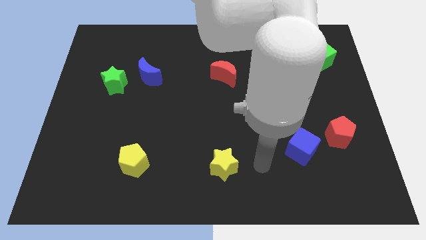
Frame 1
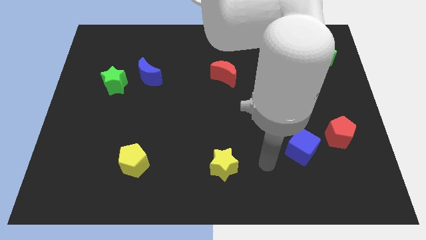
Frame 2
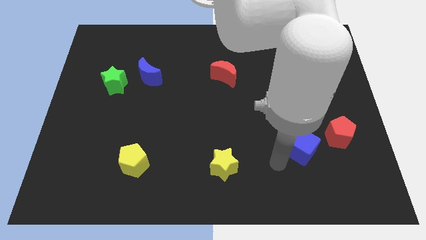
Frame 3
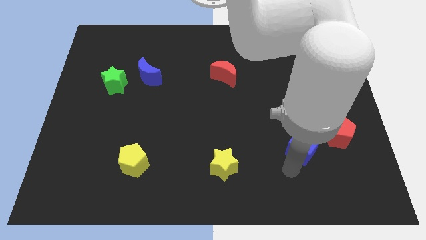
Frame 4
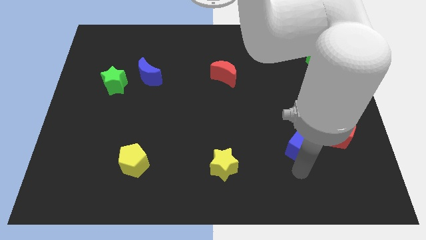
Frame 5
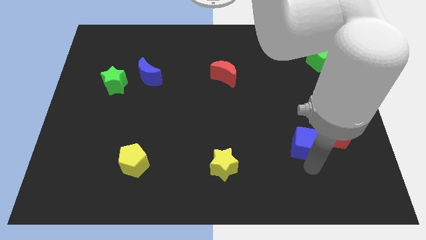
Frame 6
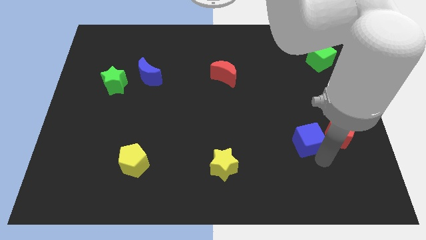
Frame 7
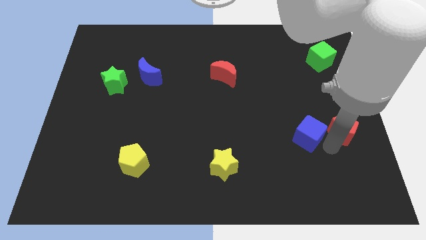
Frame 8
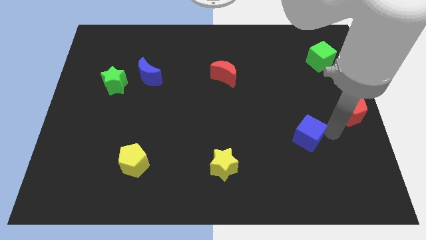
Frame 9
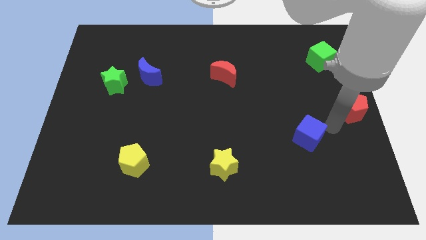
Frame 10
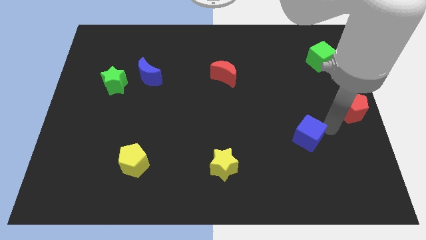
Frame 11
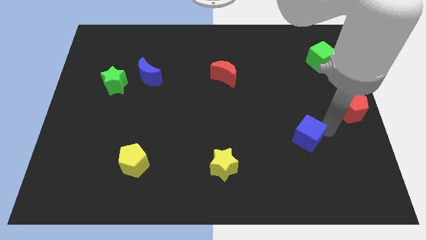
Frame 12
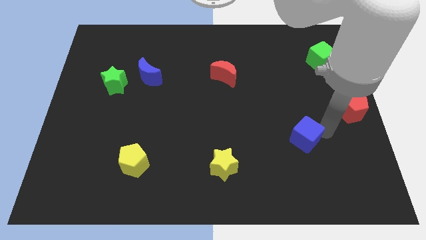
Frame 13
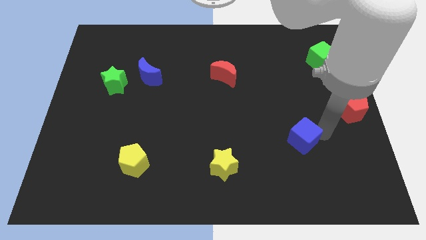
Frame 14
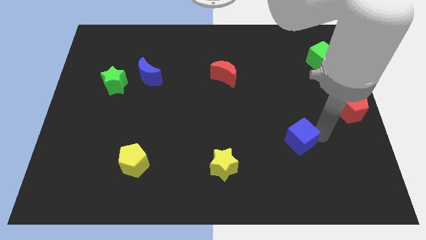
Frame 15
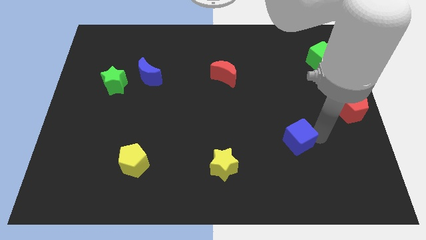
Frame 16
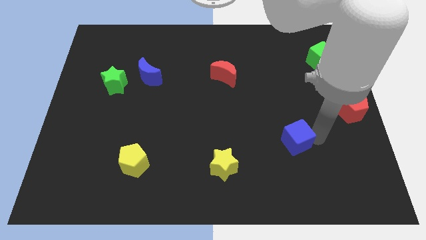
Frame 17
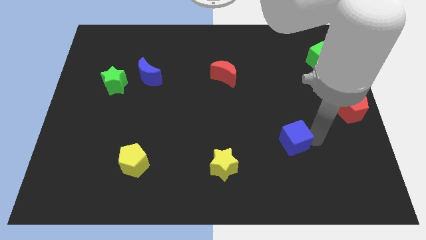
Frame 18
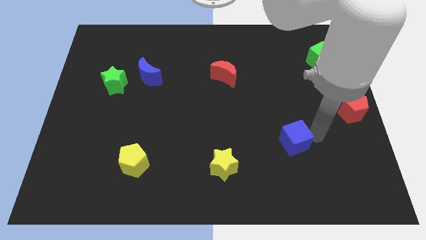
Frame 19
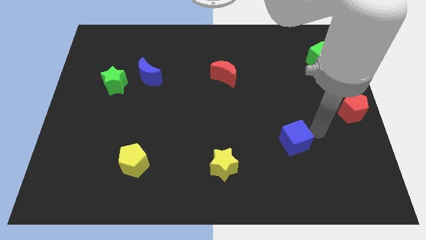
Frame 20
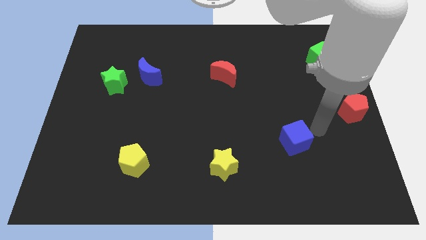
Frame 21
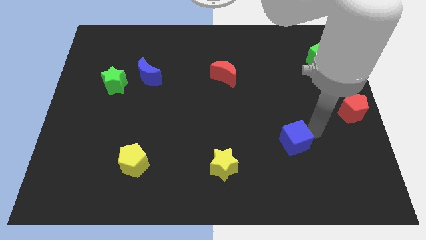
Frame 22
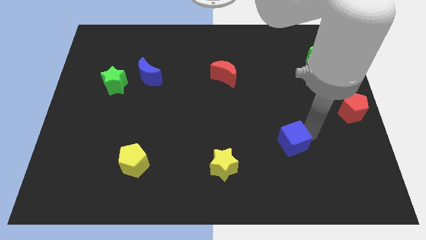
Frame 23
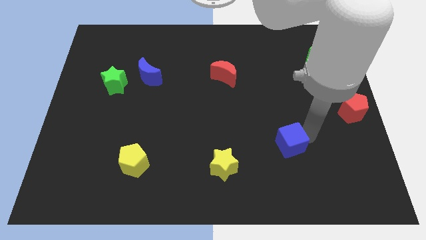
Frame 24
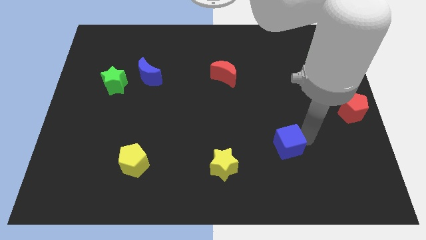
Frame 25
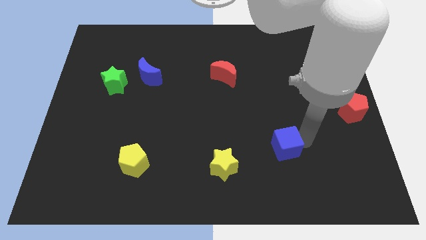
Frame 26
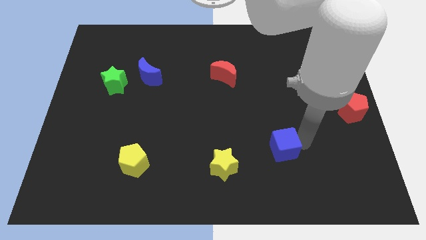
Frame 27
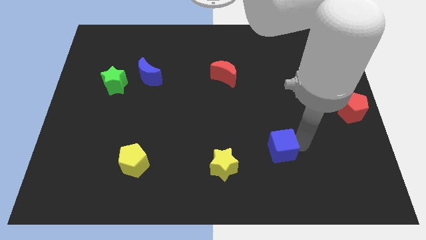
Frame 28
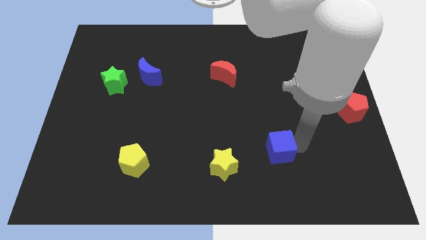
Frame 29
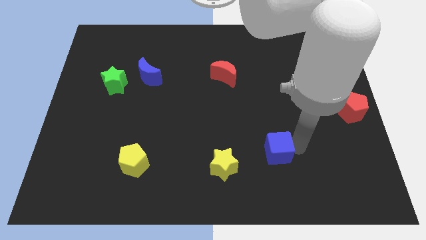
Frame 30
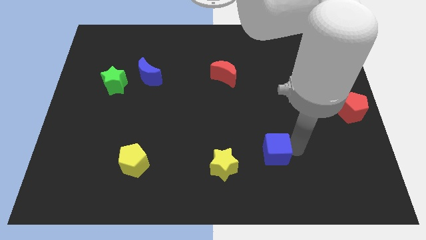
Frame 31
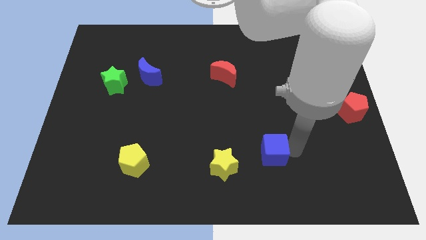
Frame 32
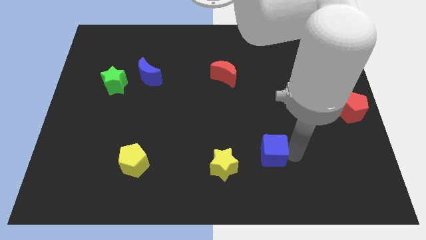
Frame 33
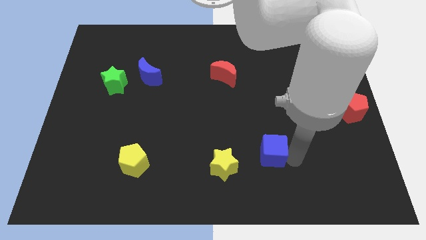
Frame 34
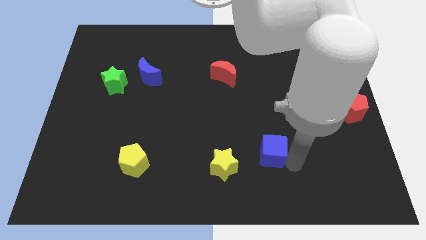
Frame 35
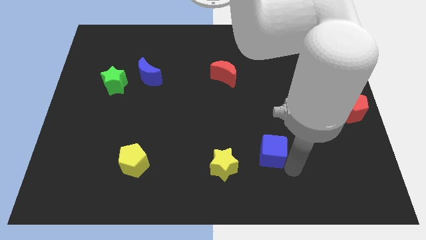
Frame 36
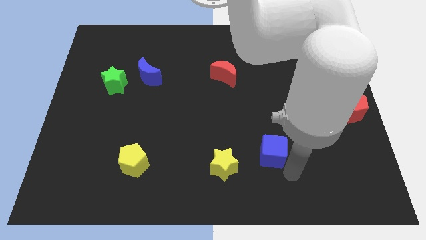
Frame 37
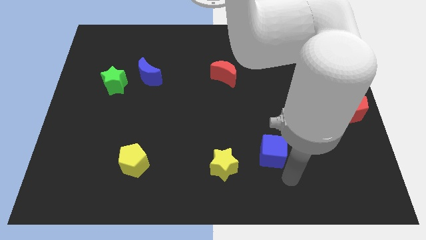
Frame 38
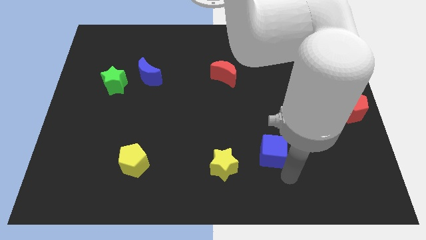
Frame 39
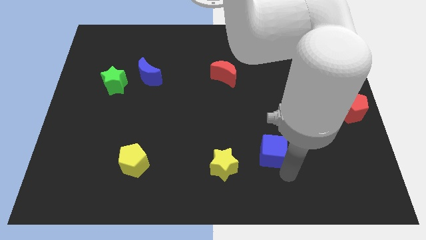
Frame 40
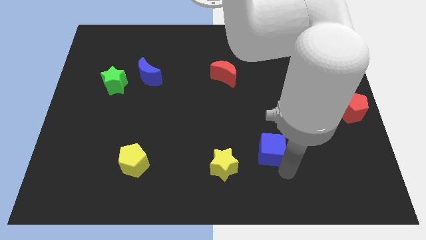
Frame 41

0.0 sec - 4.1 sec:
push the blue cube a little bit left

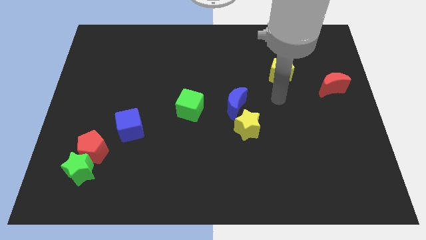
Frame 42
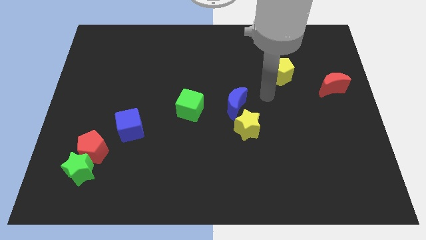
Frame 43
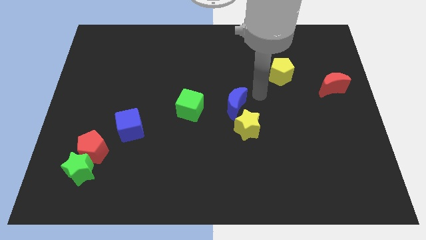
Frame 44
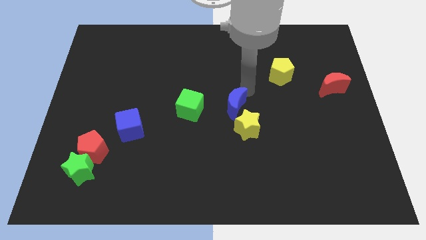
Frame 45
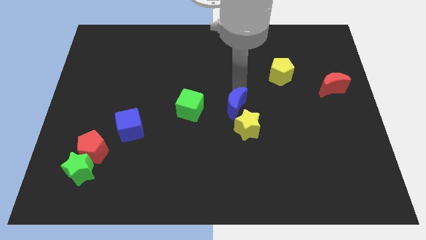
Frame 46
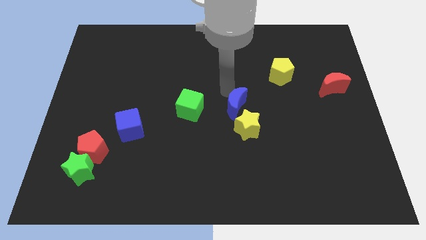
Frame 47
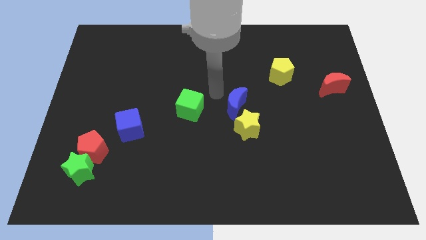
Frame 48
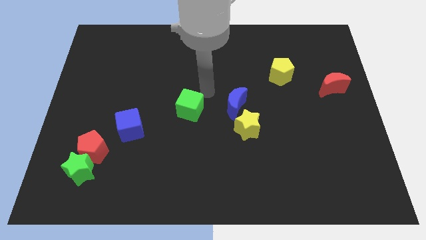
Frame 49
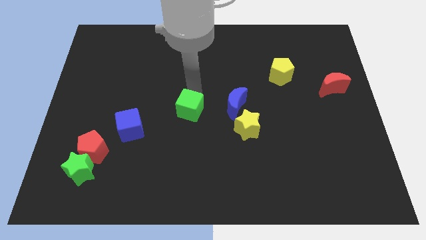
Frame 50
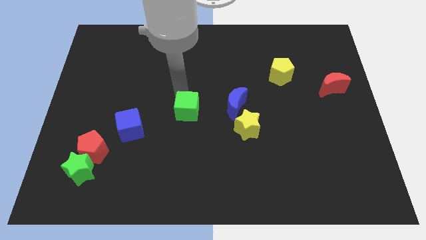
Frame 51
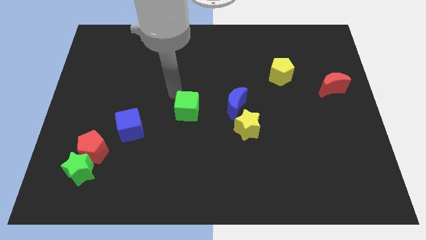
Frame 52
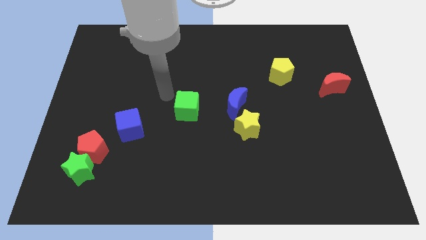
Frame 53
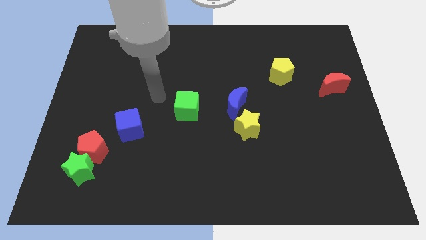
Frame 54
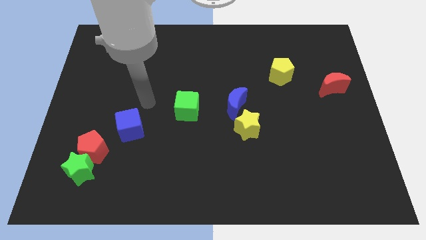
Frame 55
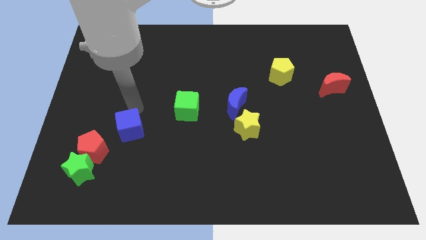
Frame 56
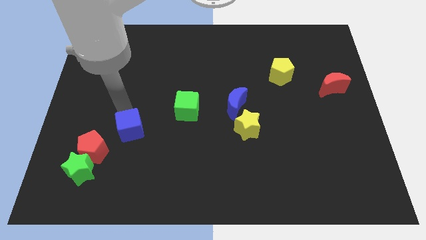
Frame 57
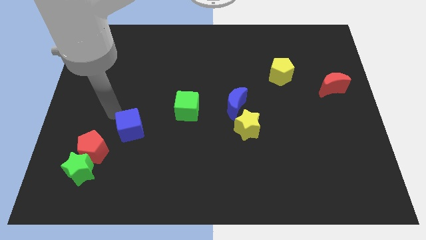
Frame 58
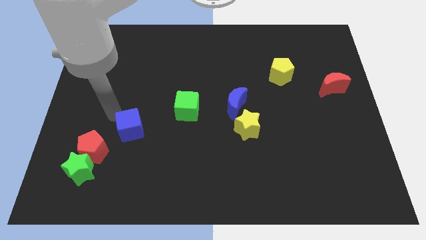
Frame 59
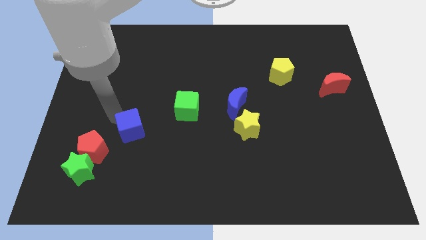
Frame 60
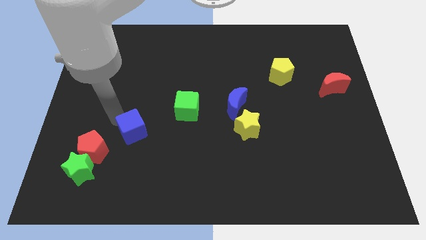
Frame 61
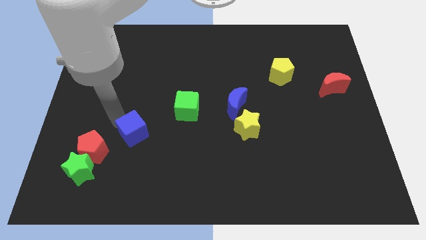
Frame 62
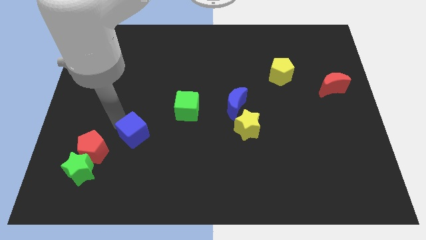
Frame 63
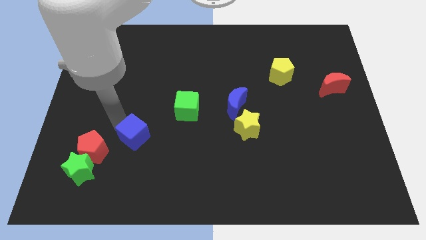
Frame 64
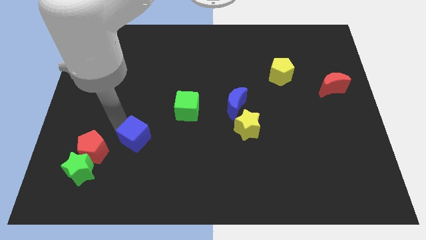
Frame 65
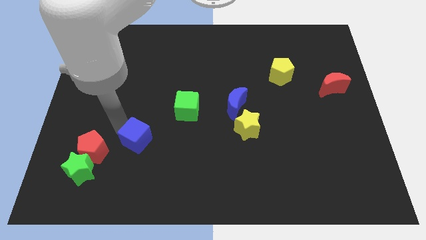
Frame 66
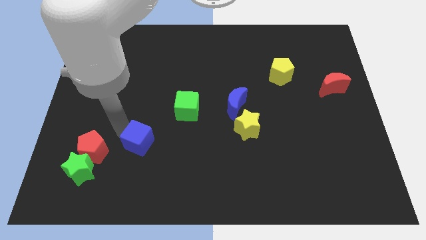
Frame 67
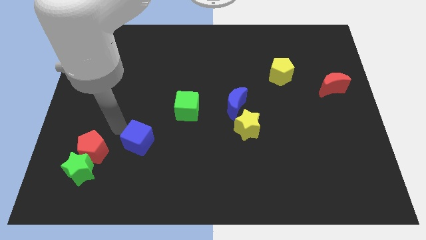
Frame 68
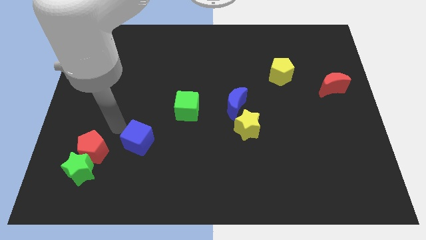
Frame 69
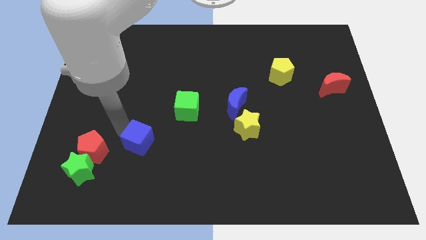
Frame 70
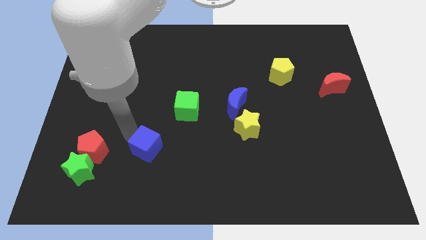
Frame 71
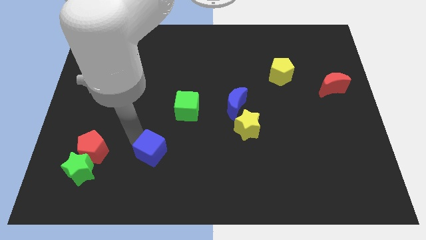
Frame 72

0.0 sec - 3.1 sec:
slide the blue cube a bit down and then right

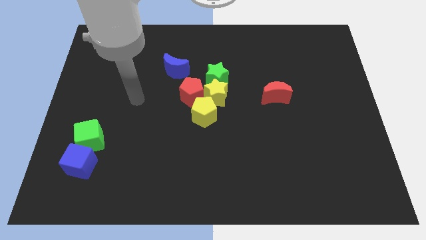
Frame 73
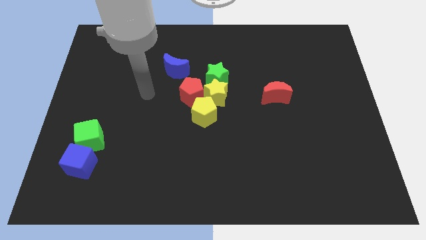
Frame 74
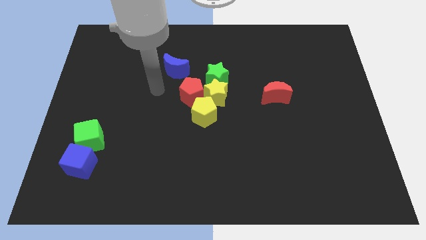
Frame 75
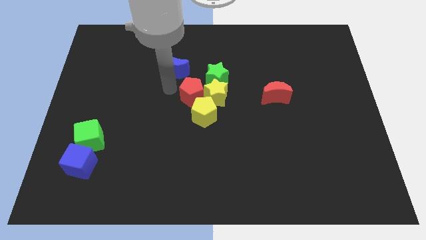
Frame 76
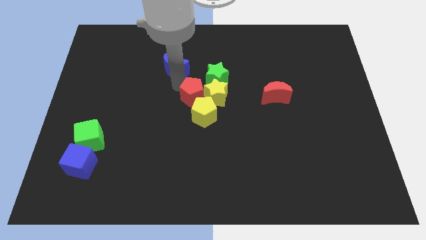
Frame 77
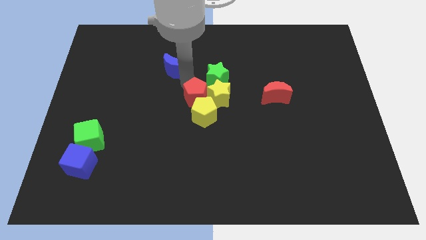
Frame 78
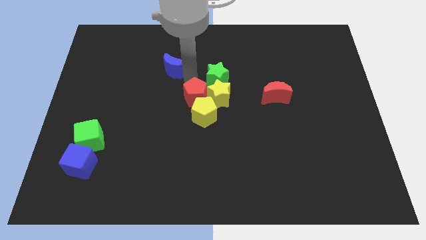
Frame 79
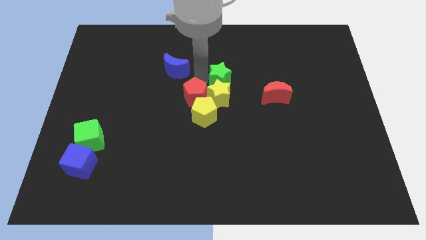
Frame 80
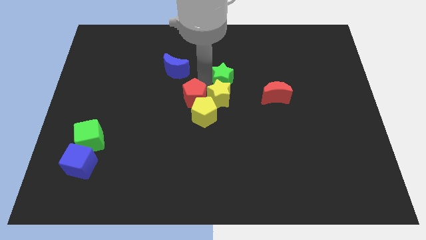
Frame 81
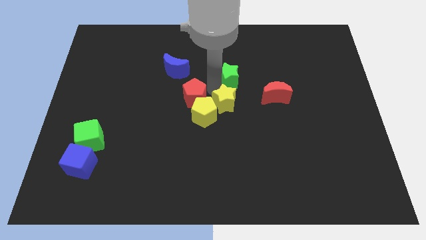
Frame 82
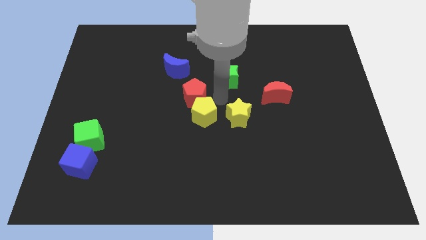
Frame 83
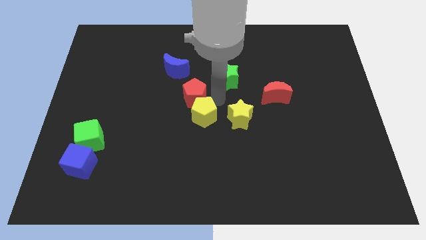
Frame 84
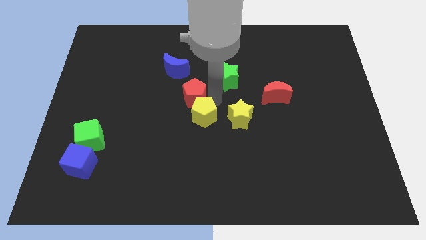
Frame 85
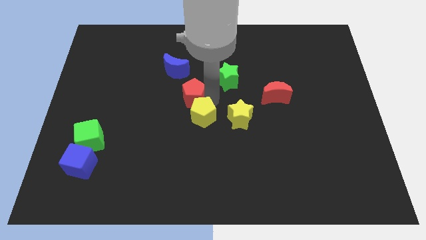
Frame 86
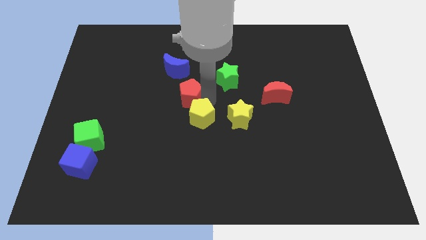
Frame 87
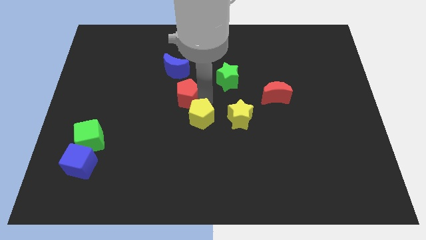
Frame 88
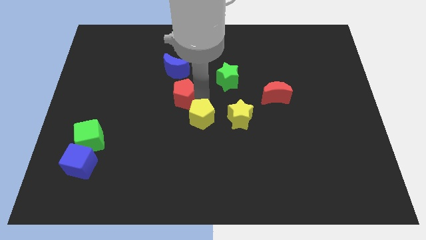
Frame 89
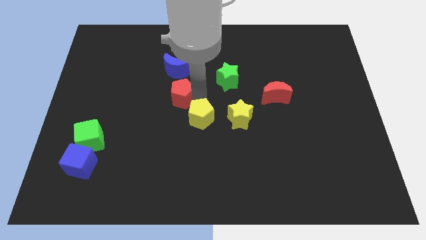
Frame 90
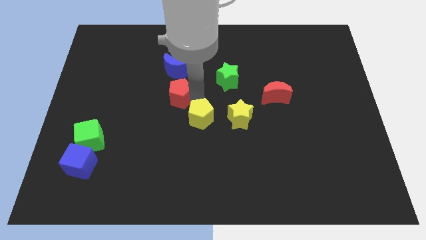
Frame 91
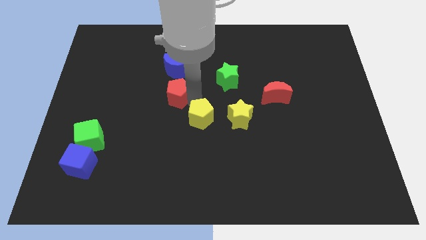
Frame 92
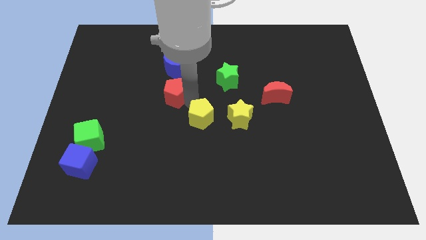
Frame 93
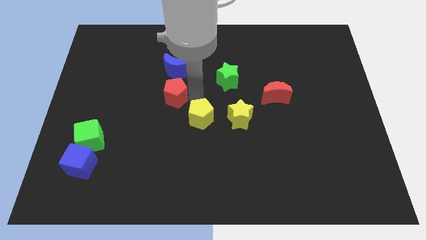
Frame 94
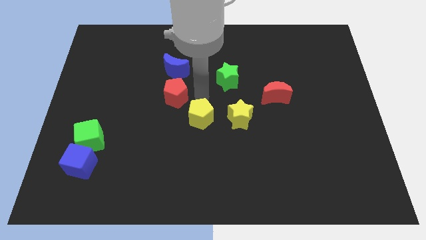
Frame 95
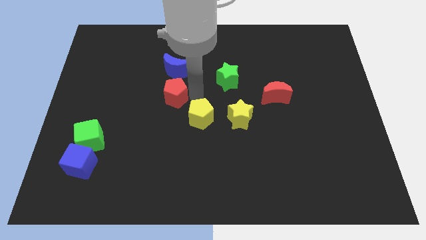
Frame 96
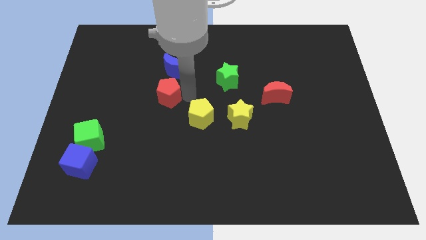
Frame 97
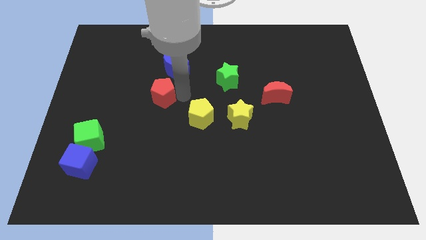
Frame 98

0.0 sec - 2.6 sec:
slightly slide the red pentagon left
